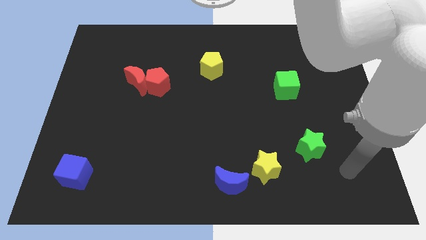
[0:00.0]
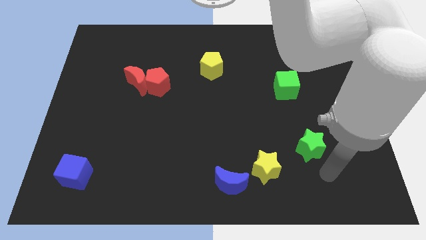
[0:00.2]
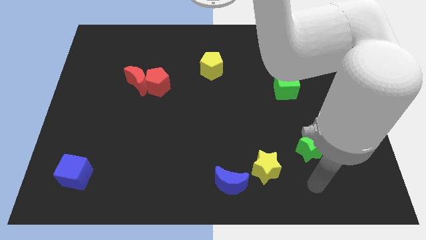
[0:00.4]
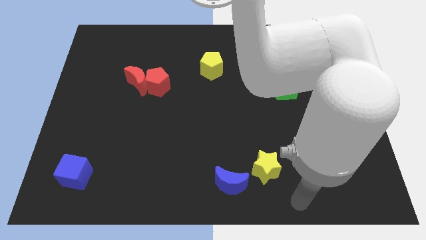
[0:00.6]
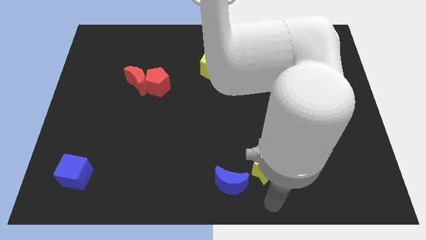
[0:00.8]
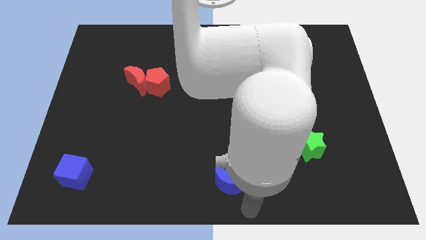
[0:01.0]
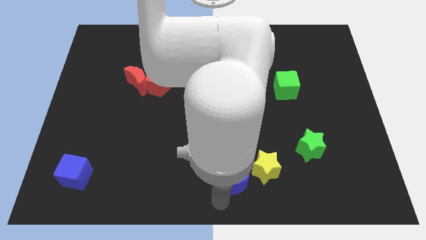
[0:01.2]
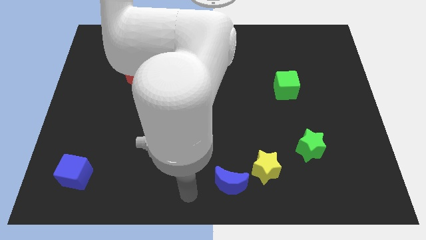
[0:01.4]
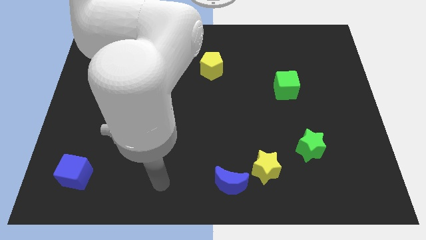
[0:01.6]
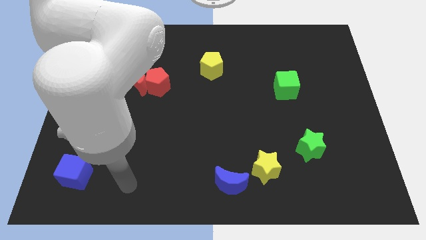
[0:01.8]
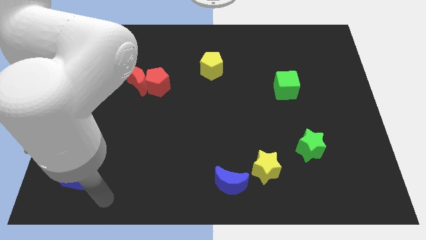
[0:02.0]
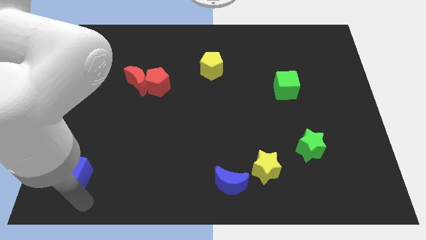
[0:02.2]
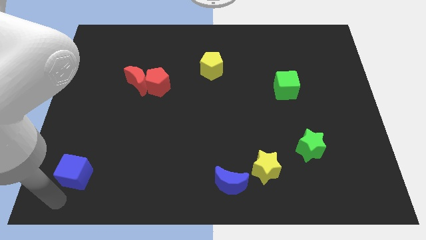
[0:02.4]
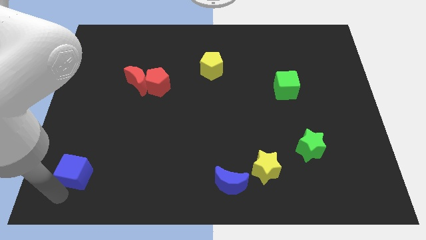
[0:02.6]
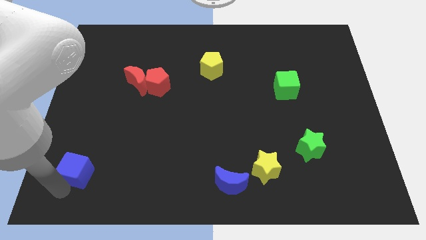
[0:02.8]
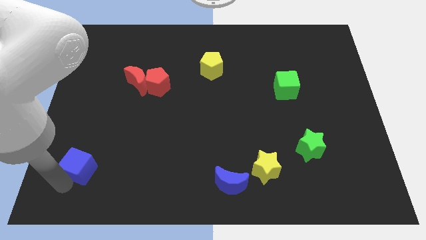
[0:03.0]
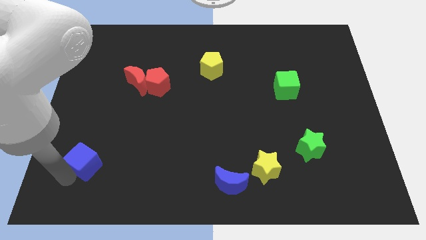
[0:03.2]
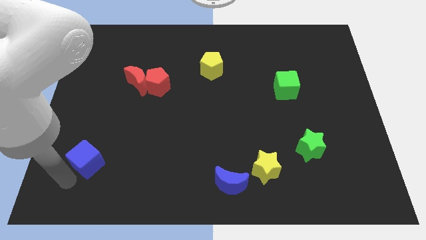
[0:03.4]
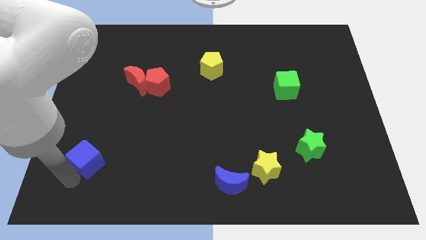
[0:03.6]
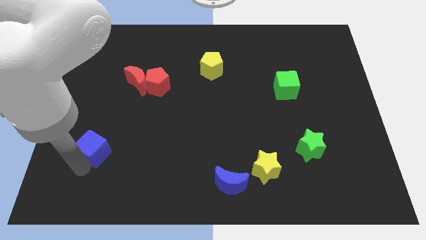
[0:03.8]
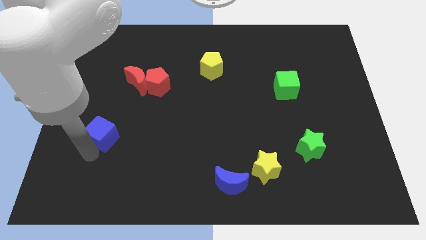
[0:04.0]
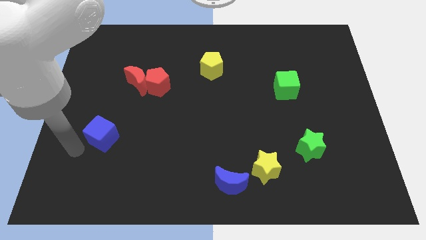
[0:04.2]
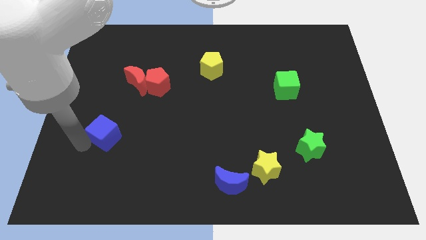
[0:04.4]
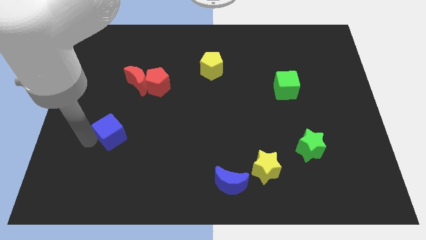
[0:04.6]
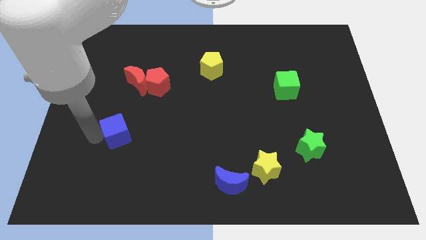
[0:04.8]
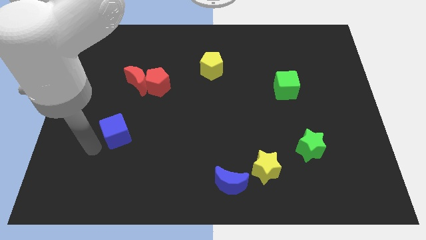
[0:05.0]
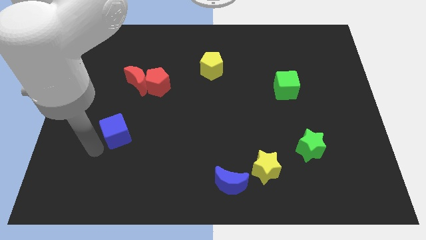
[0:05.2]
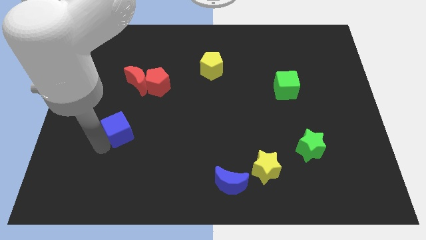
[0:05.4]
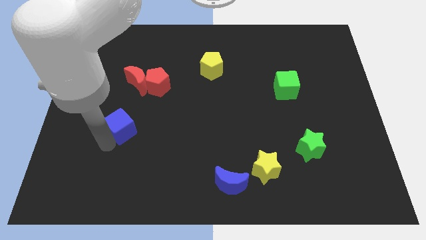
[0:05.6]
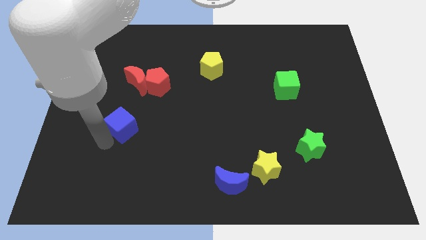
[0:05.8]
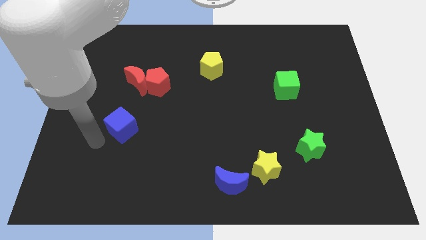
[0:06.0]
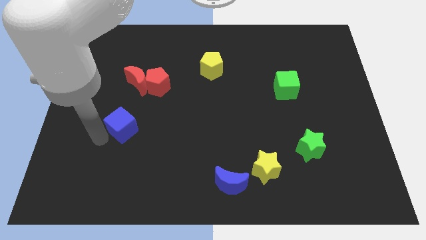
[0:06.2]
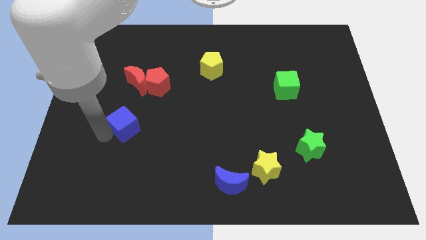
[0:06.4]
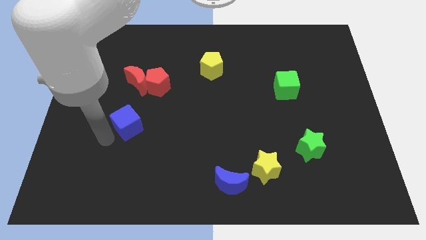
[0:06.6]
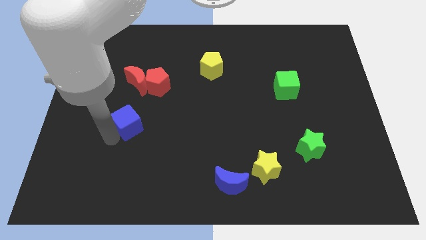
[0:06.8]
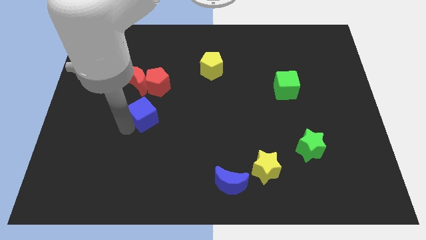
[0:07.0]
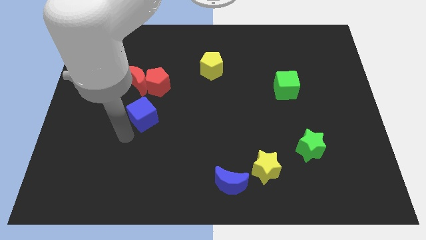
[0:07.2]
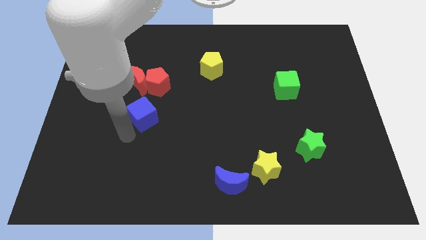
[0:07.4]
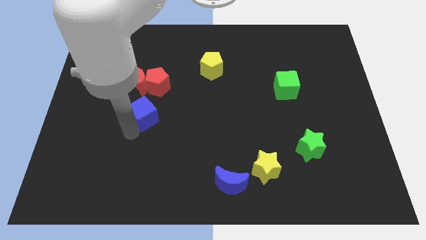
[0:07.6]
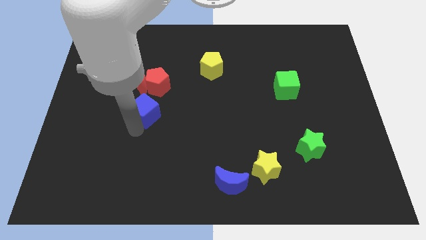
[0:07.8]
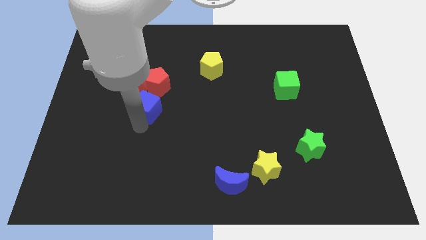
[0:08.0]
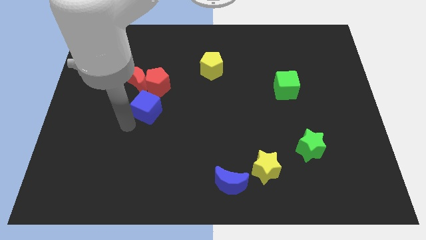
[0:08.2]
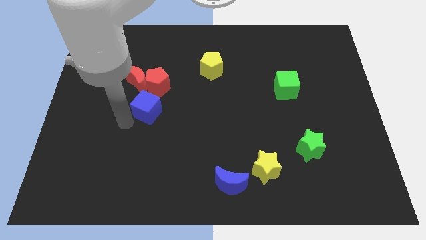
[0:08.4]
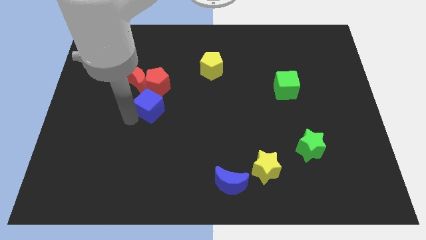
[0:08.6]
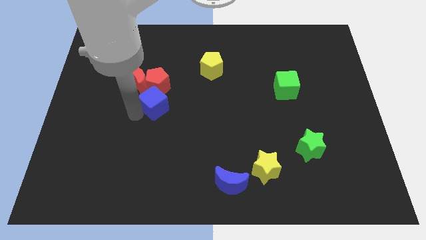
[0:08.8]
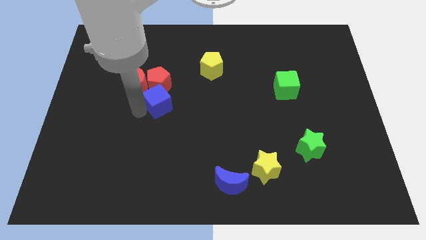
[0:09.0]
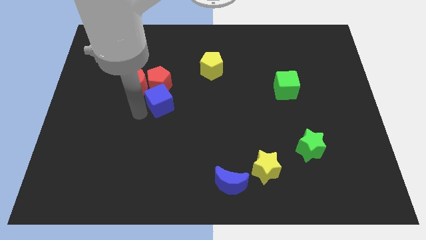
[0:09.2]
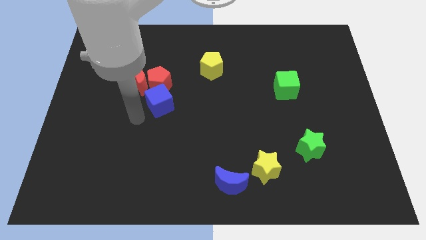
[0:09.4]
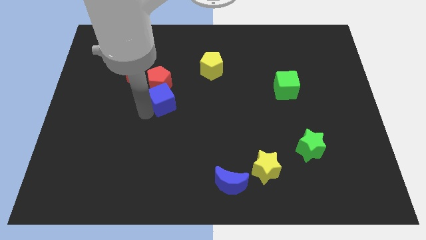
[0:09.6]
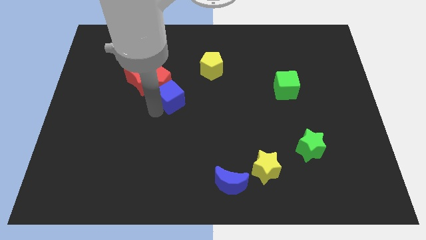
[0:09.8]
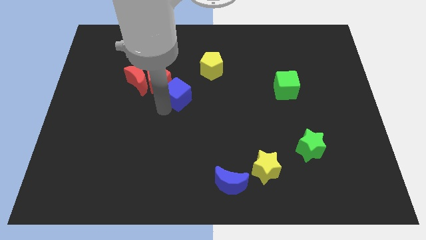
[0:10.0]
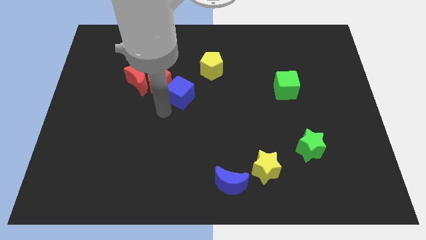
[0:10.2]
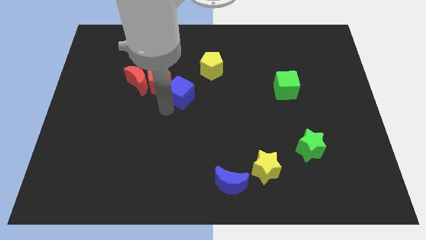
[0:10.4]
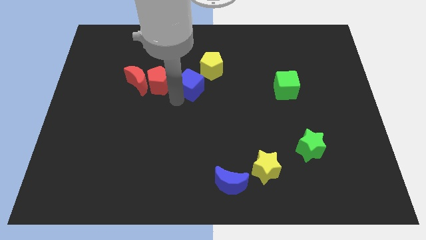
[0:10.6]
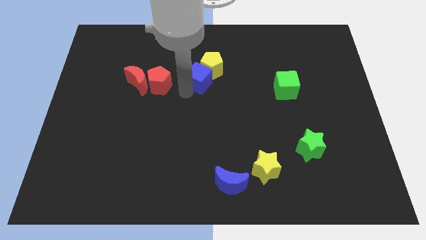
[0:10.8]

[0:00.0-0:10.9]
move the blue cube towards the yellow pentagon

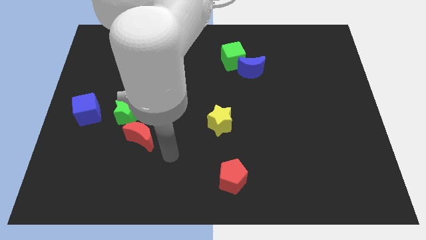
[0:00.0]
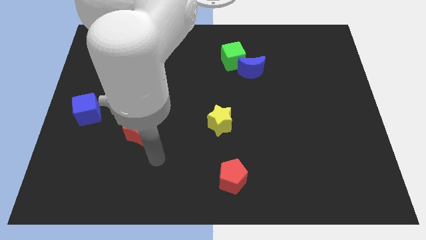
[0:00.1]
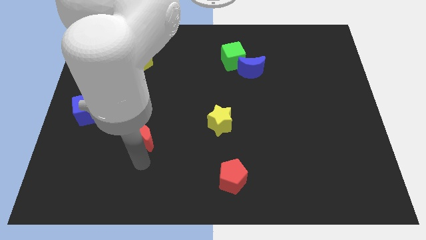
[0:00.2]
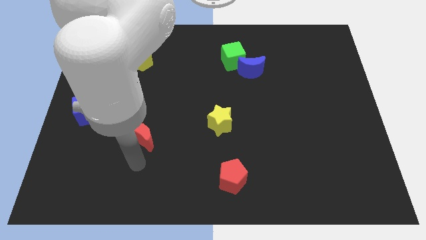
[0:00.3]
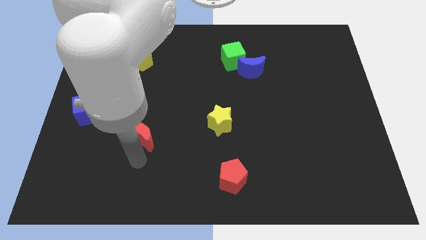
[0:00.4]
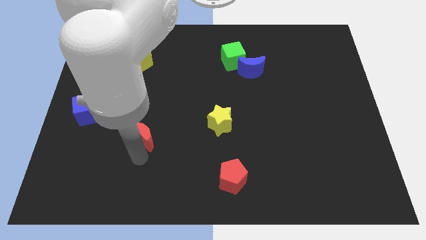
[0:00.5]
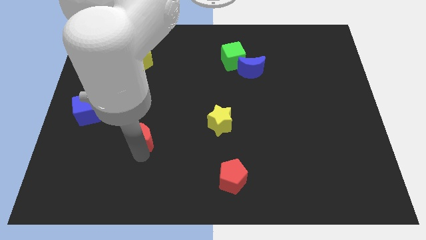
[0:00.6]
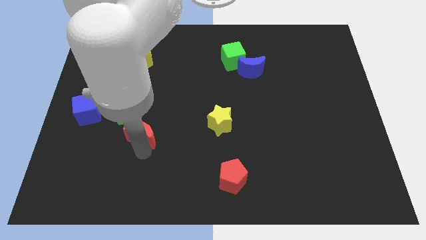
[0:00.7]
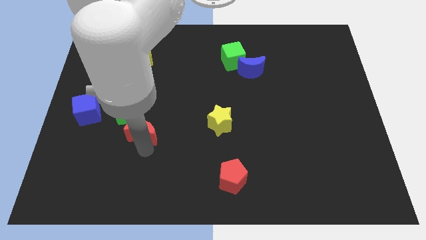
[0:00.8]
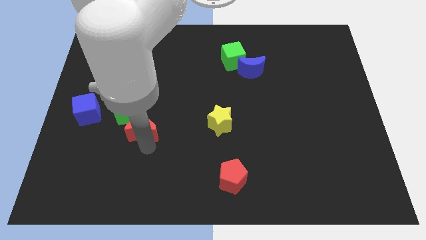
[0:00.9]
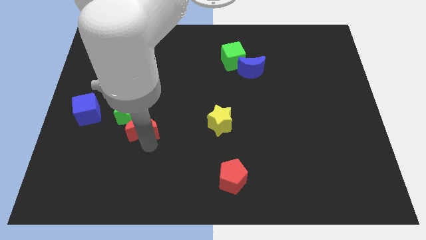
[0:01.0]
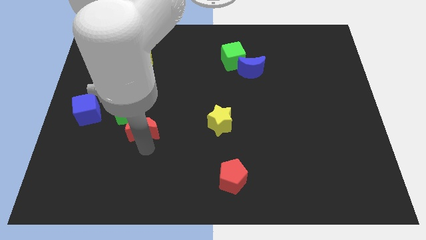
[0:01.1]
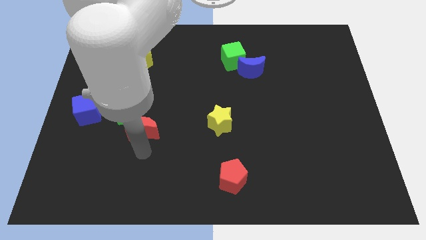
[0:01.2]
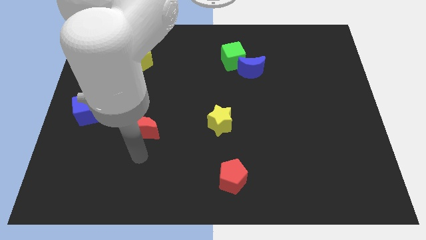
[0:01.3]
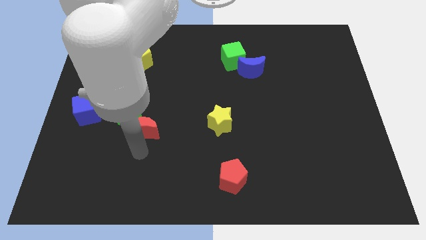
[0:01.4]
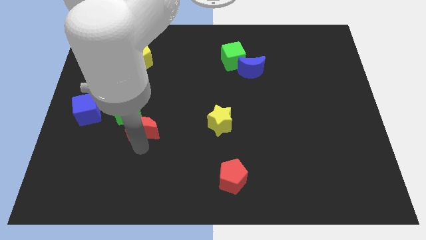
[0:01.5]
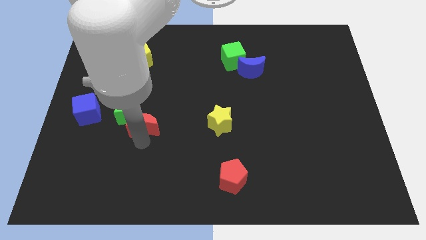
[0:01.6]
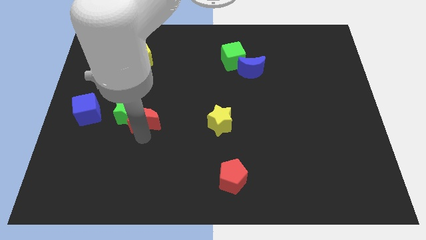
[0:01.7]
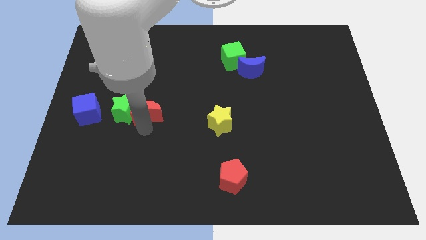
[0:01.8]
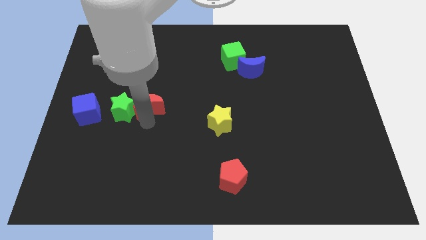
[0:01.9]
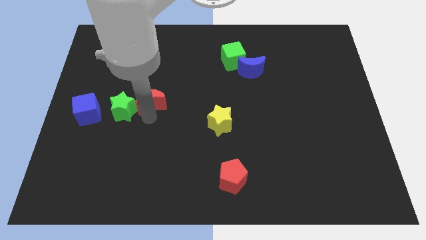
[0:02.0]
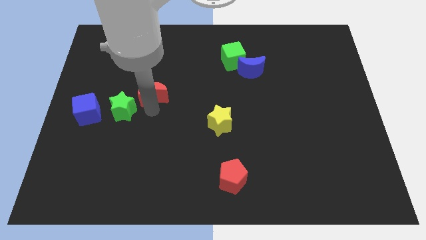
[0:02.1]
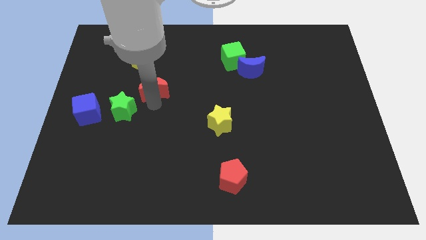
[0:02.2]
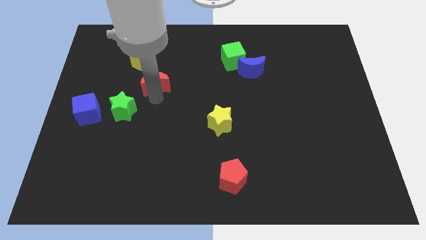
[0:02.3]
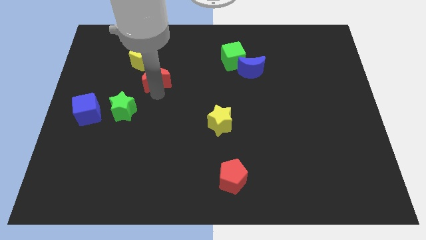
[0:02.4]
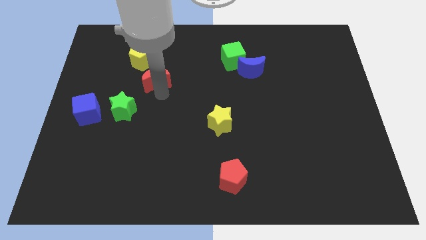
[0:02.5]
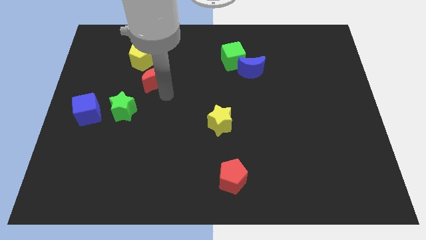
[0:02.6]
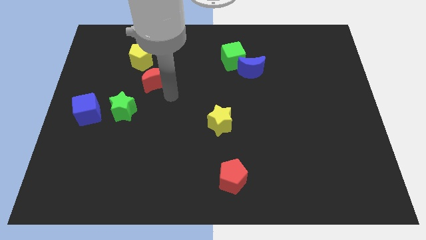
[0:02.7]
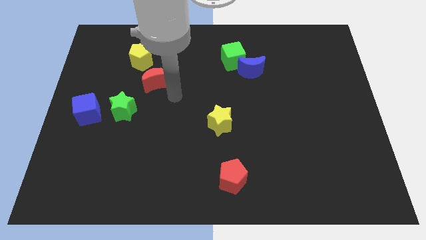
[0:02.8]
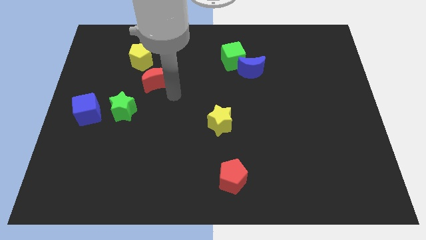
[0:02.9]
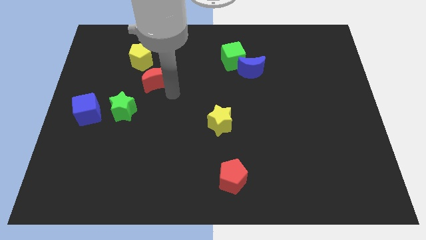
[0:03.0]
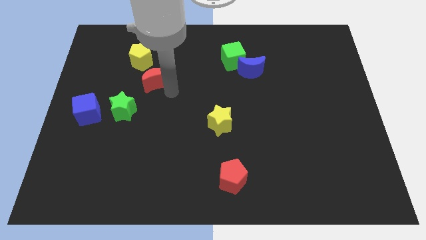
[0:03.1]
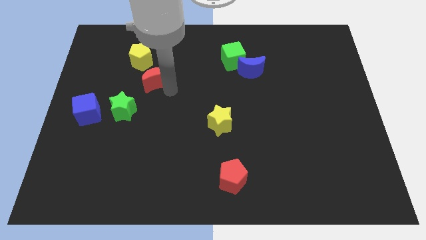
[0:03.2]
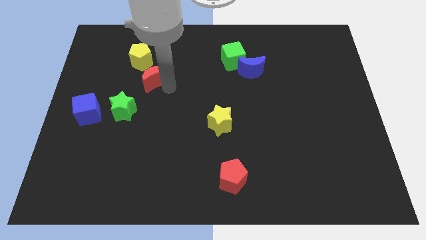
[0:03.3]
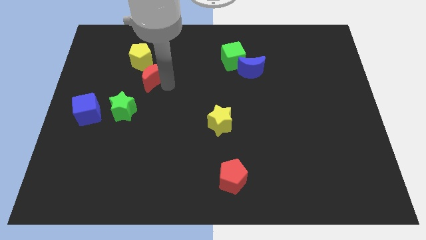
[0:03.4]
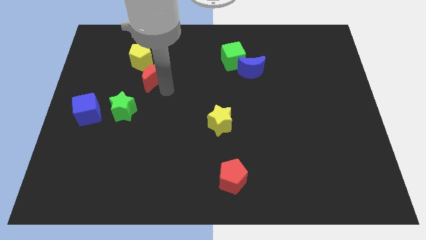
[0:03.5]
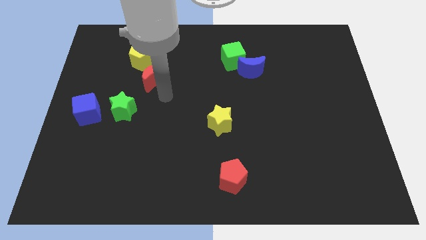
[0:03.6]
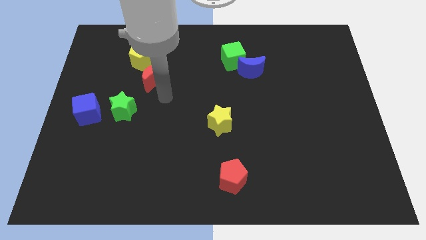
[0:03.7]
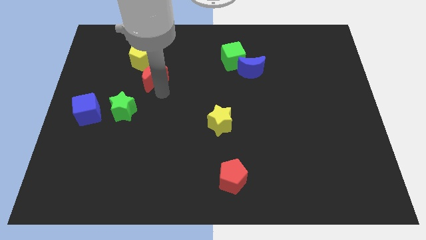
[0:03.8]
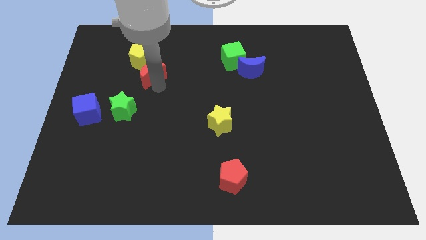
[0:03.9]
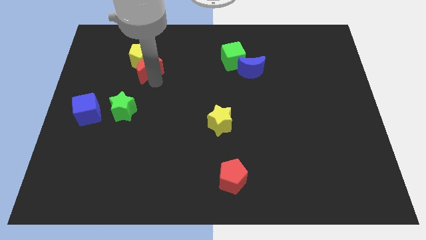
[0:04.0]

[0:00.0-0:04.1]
slide the red moon towards the yellow pentagon
